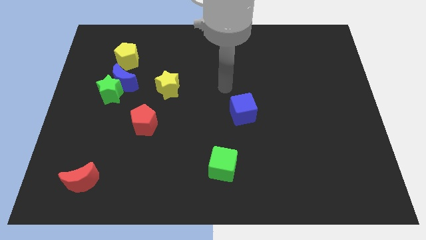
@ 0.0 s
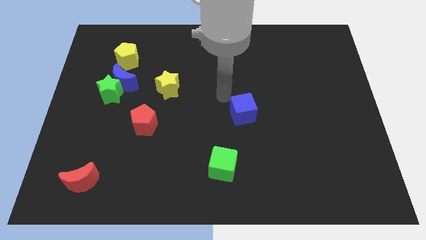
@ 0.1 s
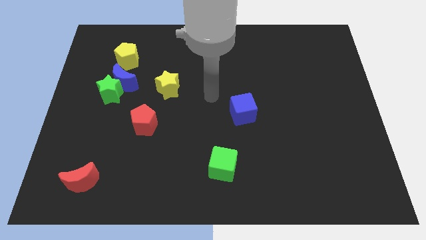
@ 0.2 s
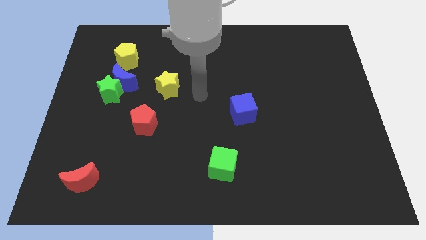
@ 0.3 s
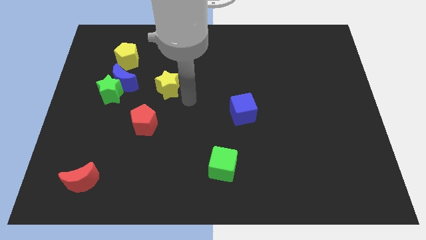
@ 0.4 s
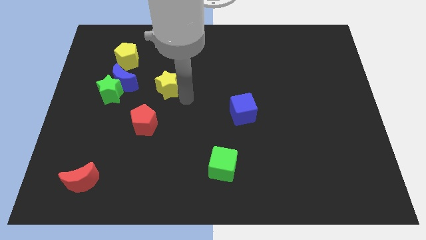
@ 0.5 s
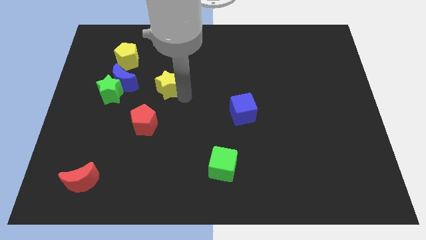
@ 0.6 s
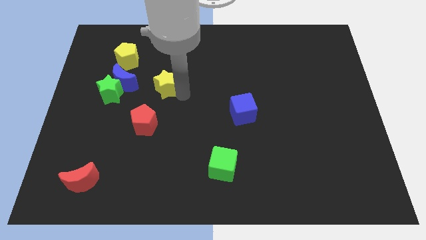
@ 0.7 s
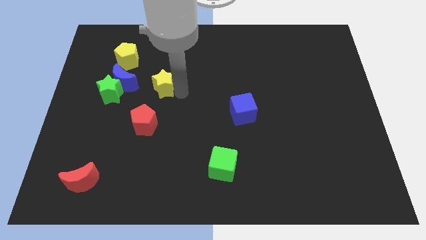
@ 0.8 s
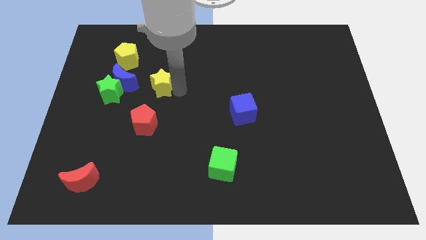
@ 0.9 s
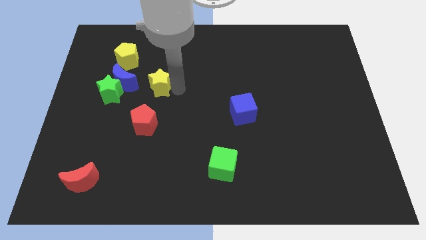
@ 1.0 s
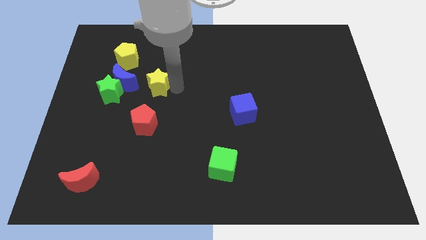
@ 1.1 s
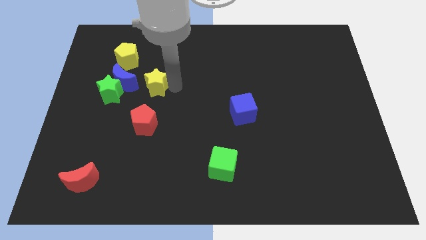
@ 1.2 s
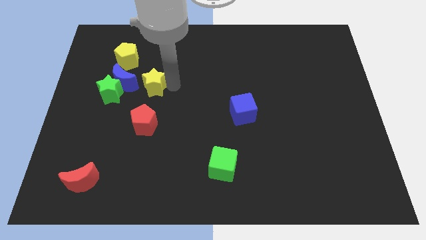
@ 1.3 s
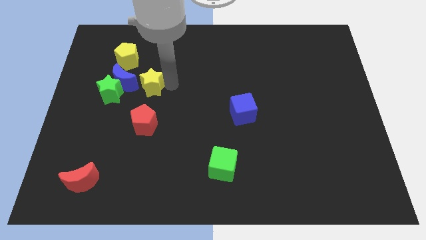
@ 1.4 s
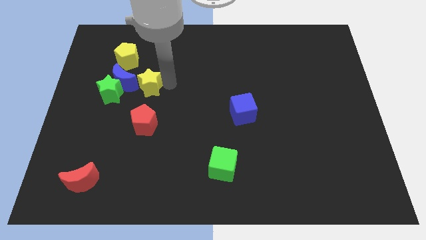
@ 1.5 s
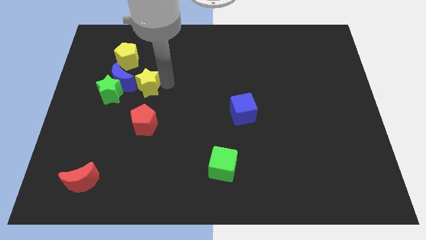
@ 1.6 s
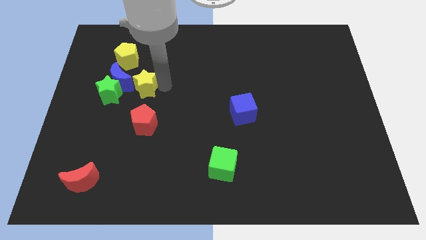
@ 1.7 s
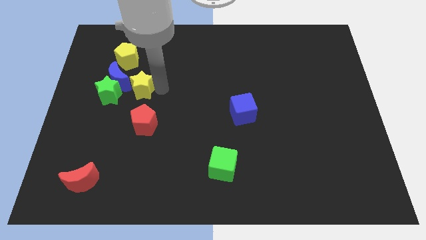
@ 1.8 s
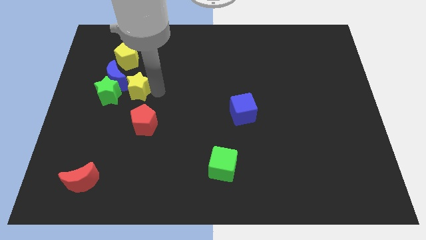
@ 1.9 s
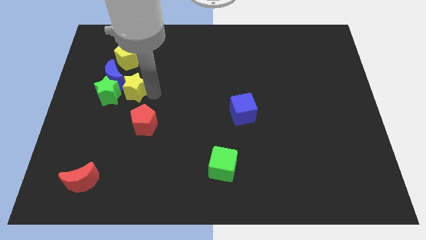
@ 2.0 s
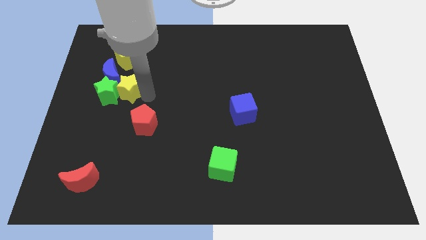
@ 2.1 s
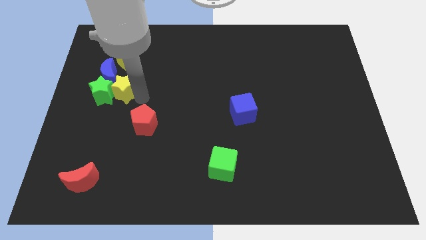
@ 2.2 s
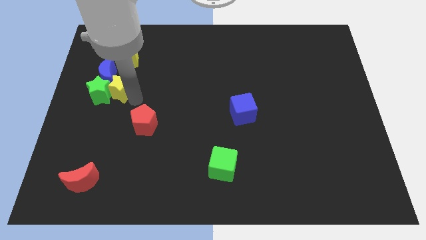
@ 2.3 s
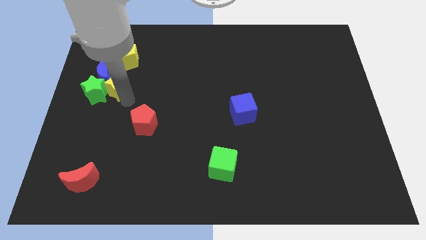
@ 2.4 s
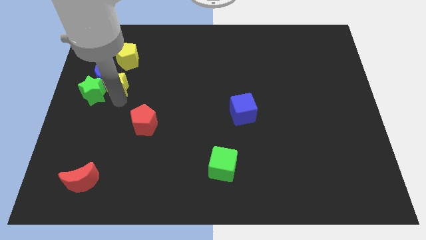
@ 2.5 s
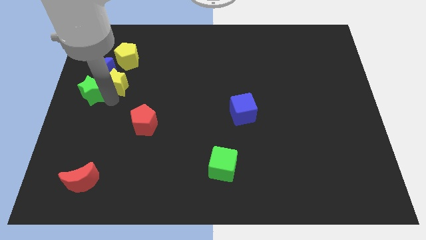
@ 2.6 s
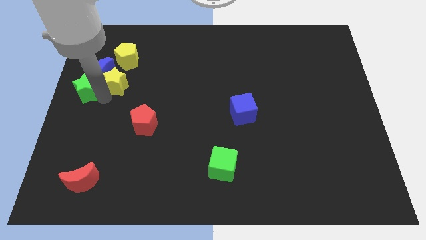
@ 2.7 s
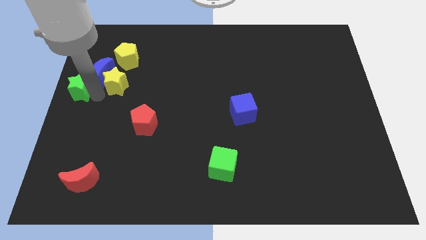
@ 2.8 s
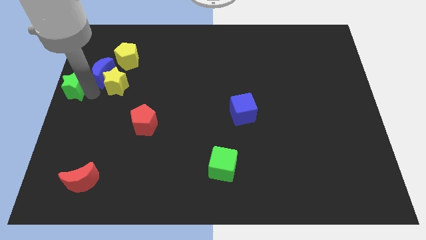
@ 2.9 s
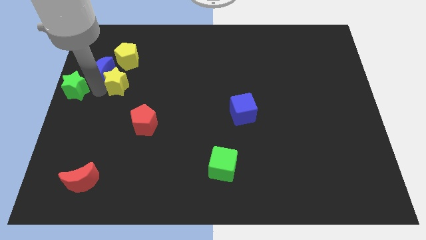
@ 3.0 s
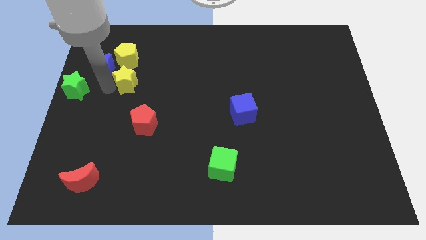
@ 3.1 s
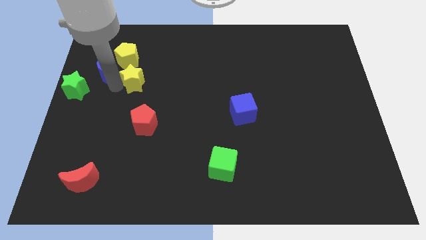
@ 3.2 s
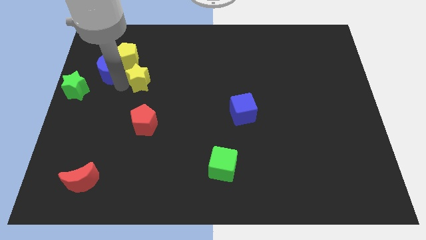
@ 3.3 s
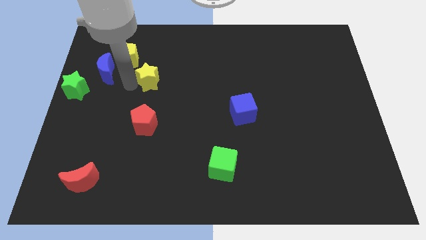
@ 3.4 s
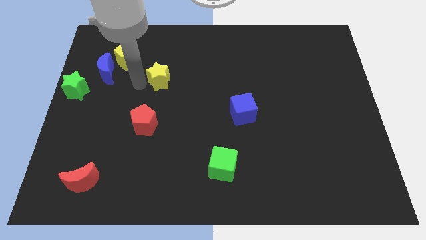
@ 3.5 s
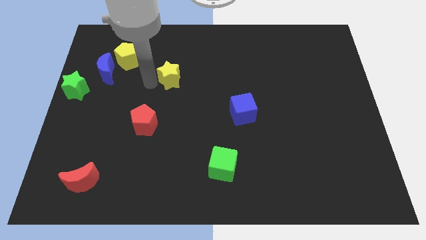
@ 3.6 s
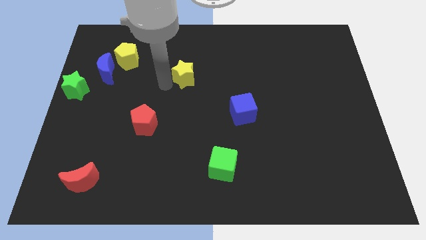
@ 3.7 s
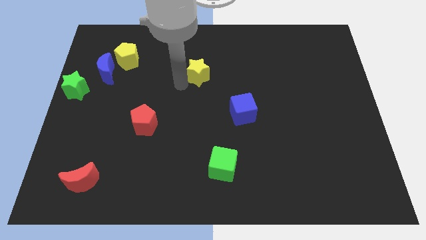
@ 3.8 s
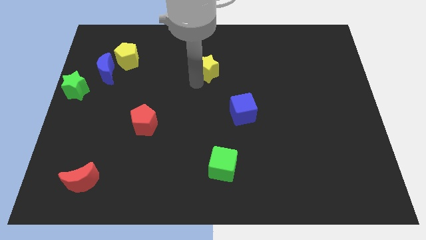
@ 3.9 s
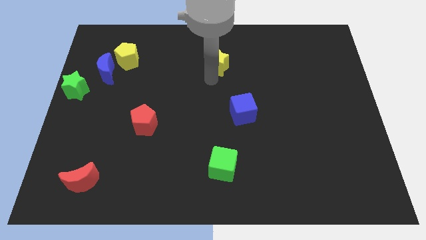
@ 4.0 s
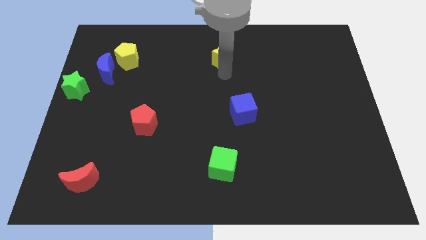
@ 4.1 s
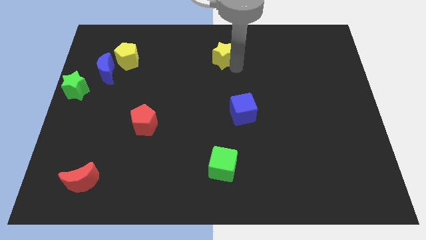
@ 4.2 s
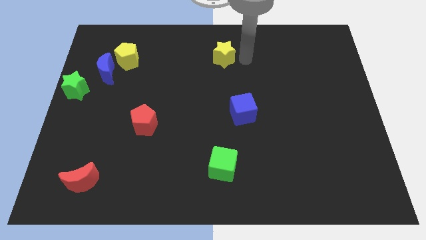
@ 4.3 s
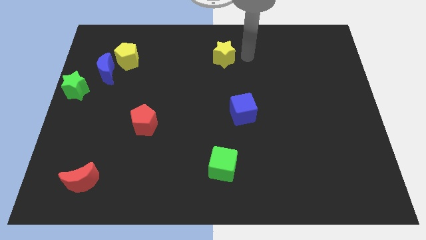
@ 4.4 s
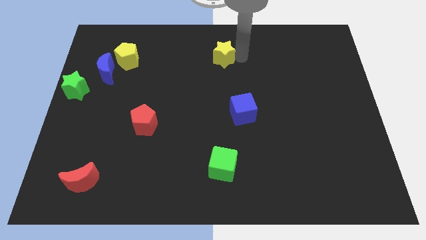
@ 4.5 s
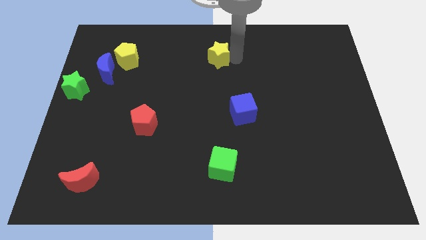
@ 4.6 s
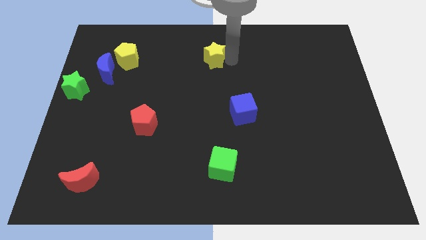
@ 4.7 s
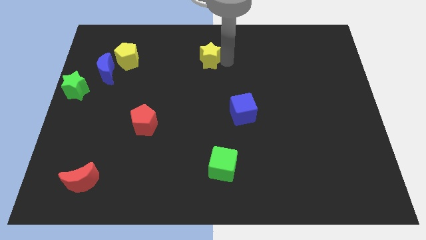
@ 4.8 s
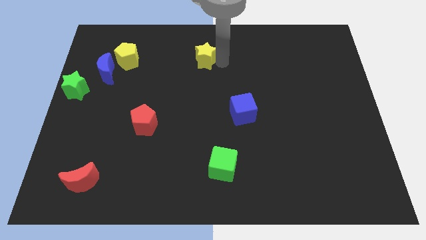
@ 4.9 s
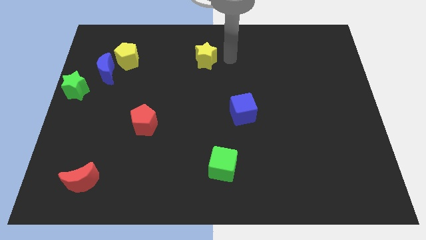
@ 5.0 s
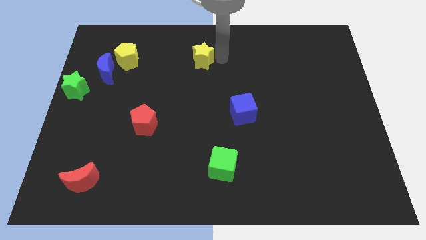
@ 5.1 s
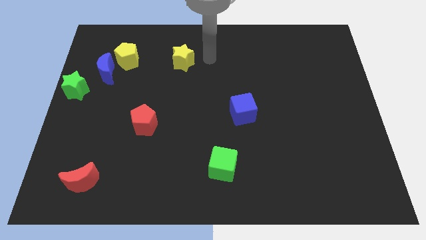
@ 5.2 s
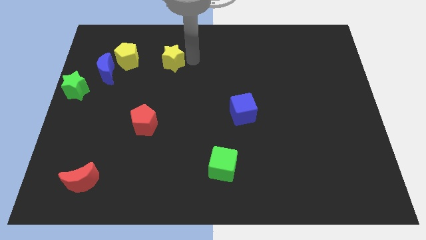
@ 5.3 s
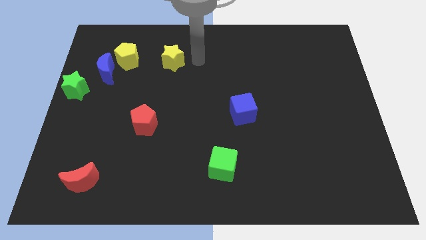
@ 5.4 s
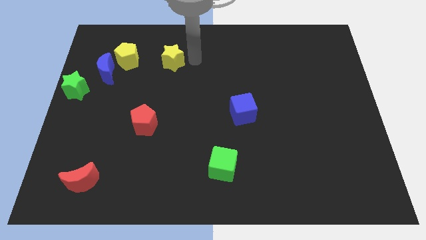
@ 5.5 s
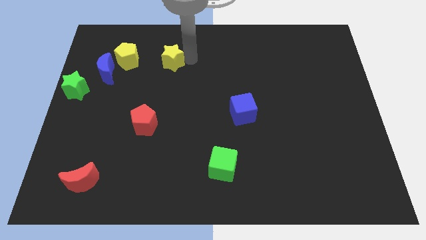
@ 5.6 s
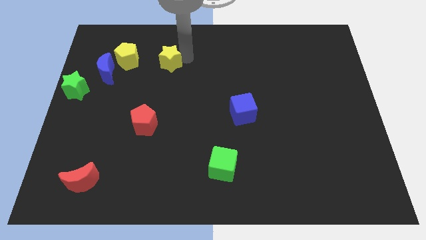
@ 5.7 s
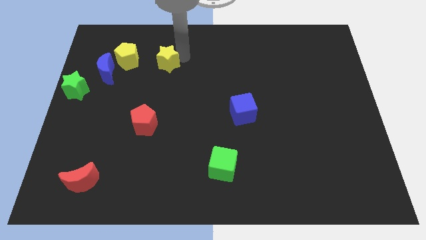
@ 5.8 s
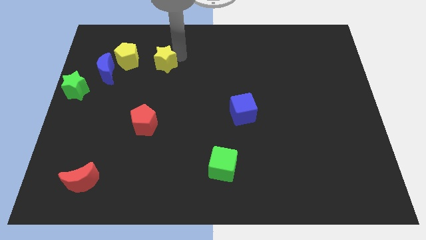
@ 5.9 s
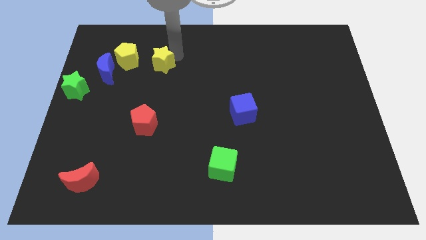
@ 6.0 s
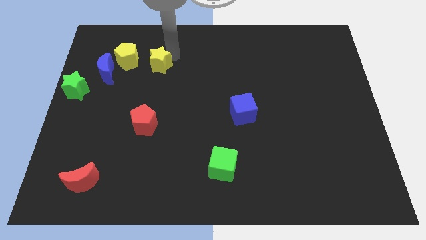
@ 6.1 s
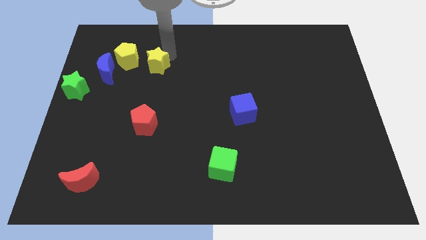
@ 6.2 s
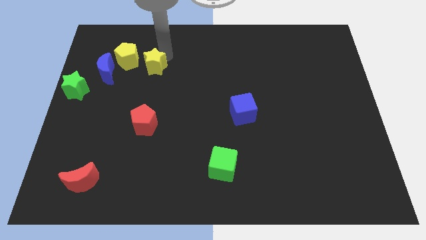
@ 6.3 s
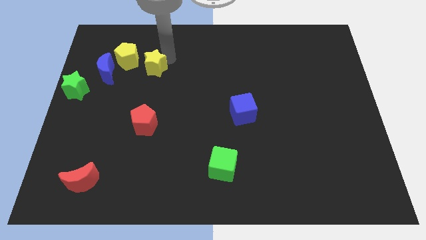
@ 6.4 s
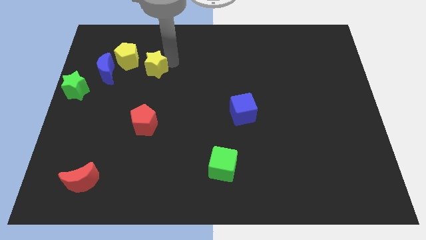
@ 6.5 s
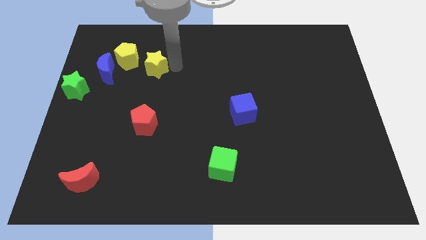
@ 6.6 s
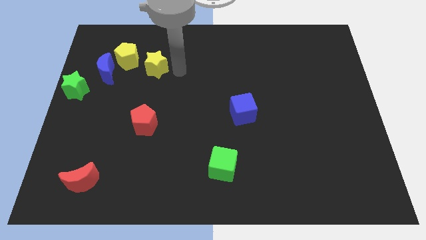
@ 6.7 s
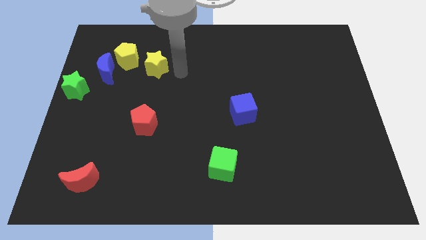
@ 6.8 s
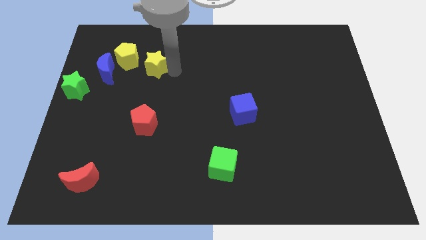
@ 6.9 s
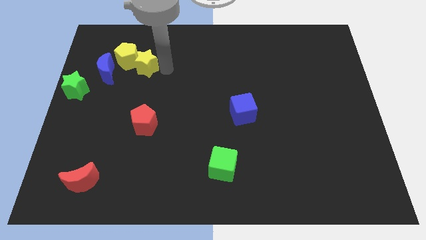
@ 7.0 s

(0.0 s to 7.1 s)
move the yellow star to the yellow pentagon
